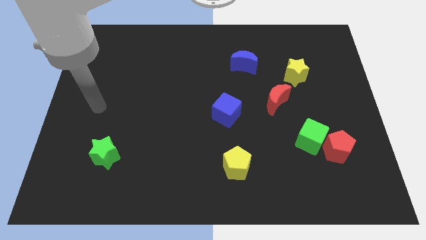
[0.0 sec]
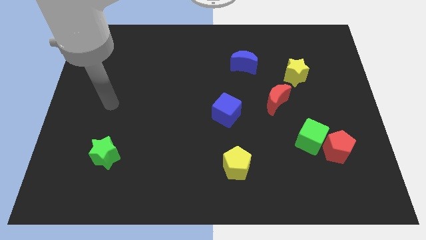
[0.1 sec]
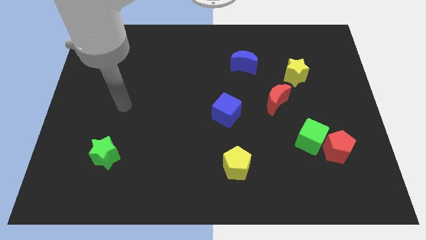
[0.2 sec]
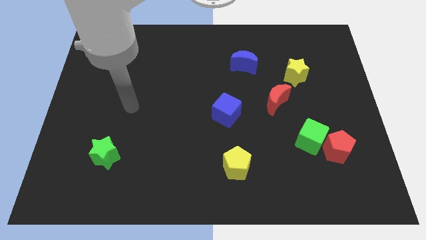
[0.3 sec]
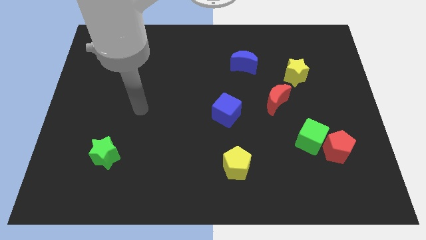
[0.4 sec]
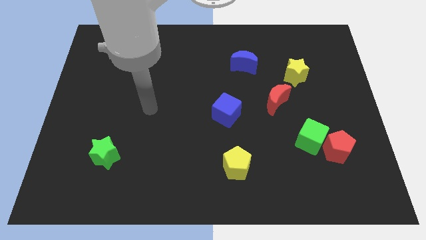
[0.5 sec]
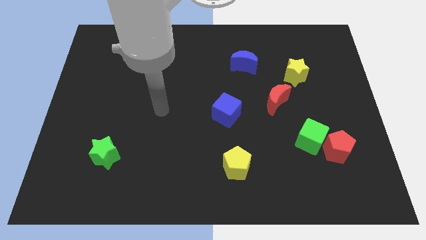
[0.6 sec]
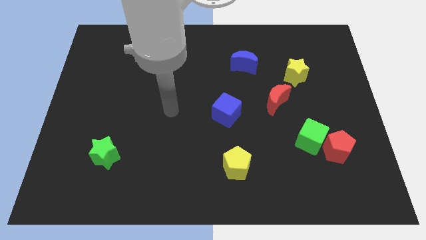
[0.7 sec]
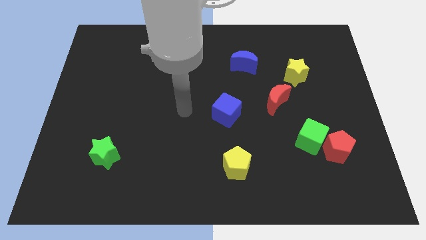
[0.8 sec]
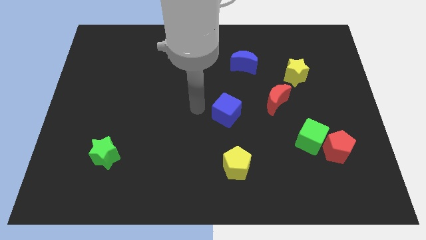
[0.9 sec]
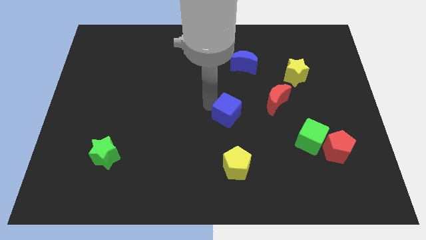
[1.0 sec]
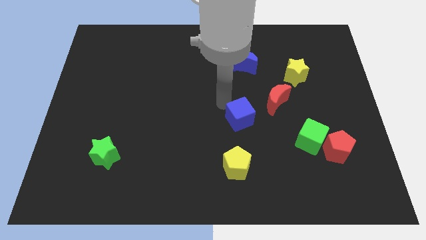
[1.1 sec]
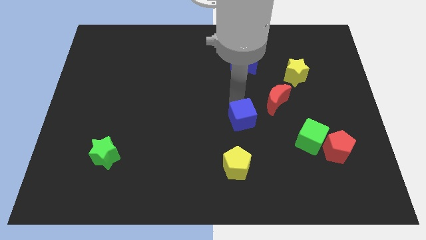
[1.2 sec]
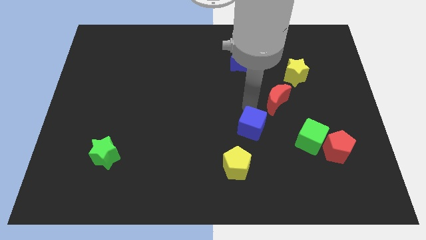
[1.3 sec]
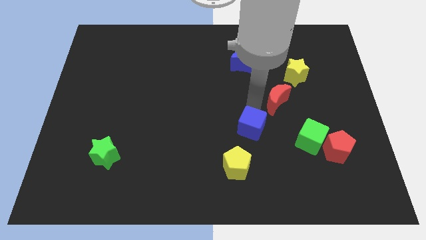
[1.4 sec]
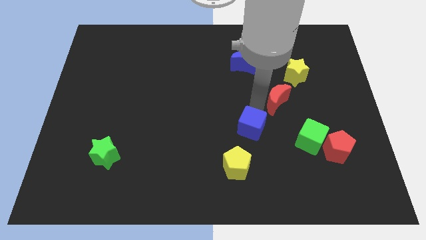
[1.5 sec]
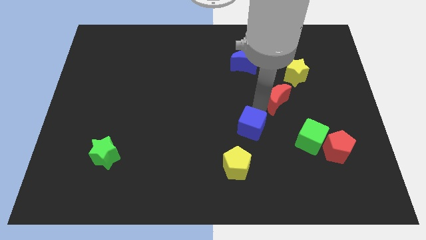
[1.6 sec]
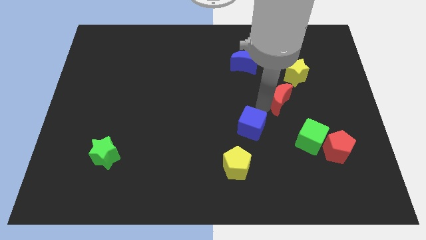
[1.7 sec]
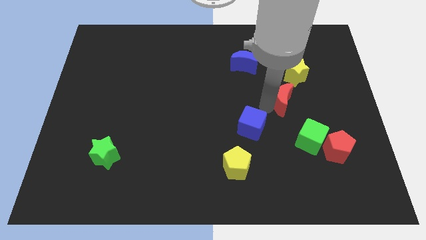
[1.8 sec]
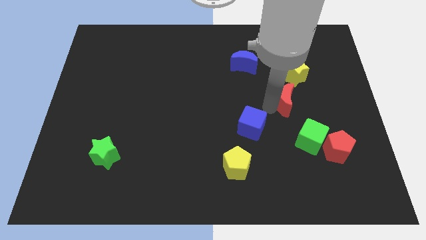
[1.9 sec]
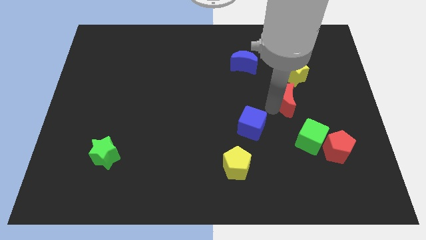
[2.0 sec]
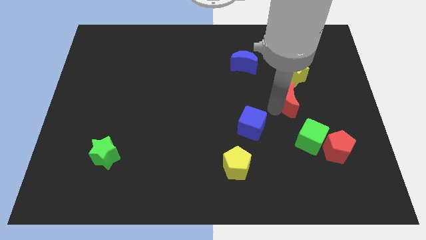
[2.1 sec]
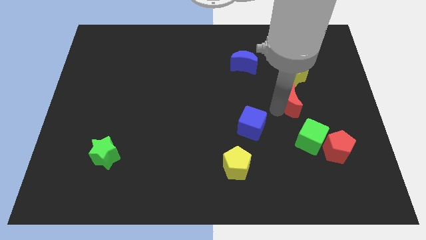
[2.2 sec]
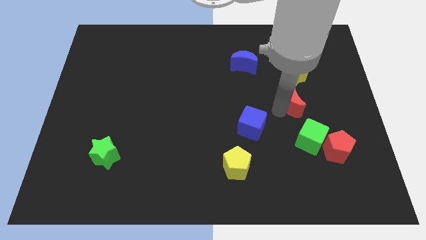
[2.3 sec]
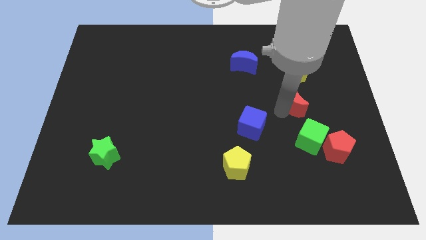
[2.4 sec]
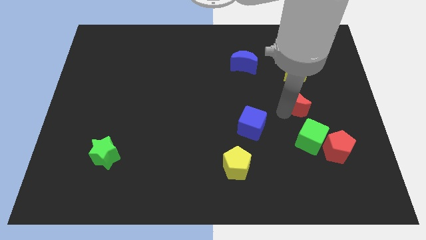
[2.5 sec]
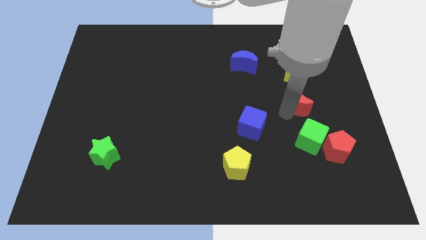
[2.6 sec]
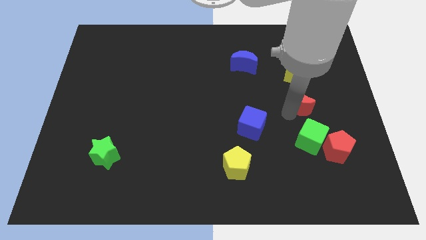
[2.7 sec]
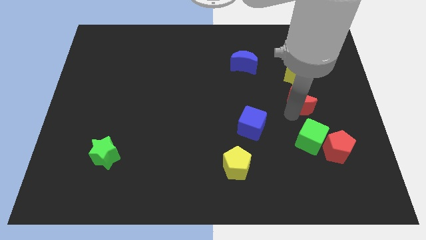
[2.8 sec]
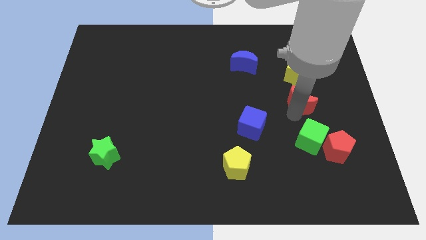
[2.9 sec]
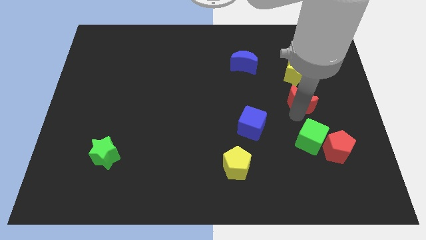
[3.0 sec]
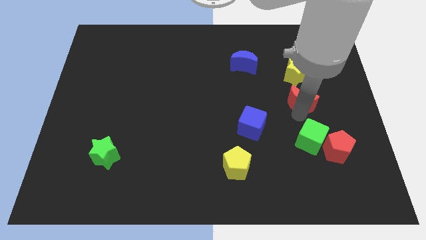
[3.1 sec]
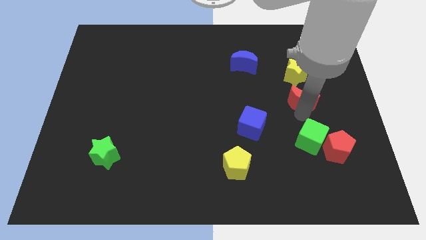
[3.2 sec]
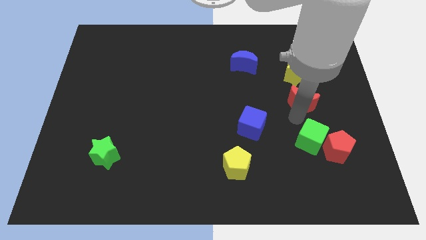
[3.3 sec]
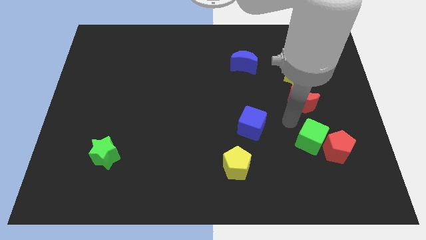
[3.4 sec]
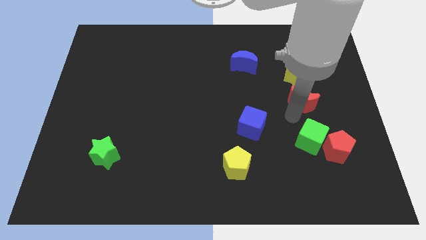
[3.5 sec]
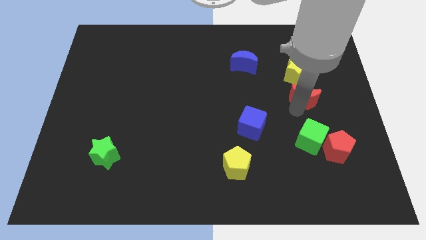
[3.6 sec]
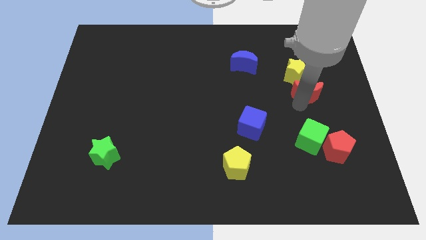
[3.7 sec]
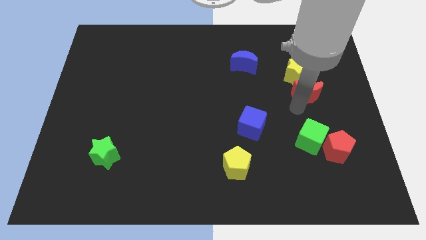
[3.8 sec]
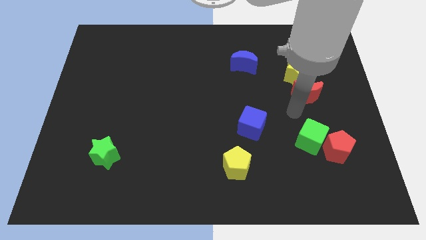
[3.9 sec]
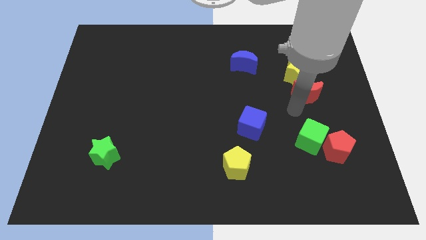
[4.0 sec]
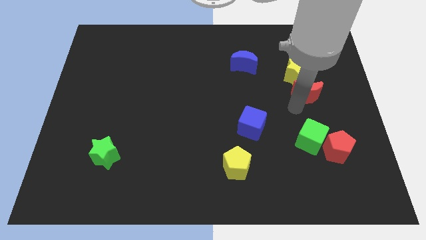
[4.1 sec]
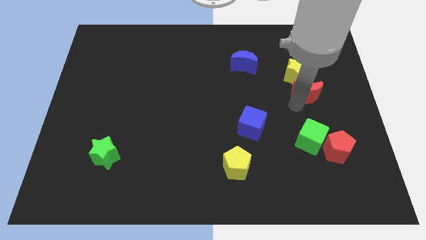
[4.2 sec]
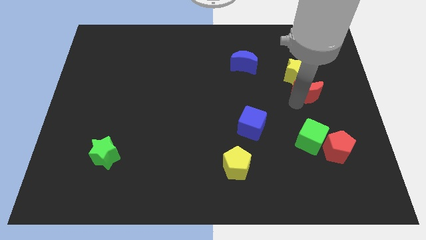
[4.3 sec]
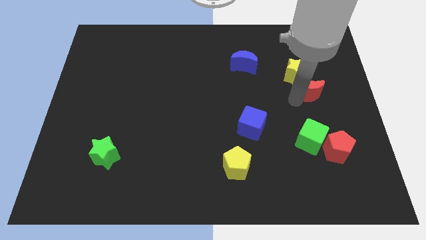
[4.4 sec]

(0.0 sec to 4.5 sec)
slightly slide the red moon upwards and then right

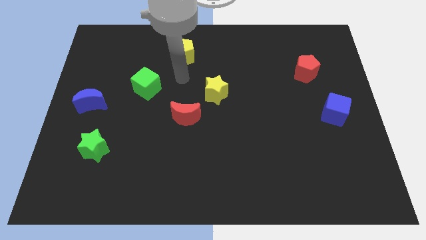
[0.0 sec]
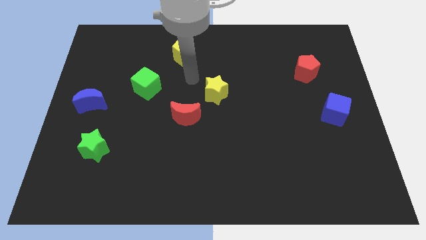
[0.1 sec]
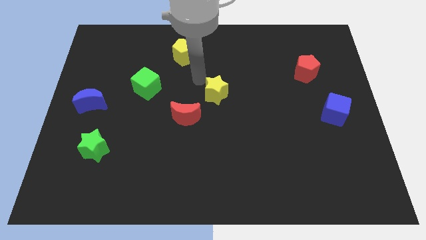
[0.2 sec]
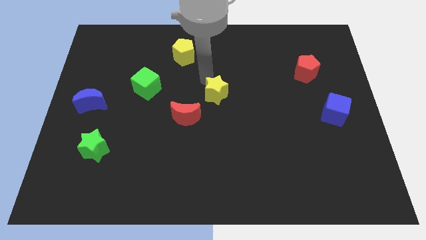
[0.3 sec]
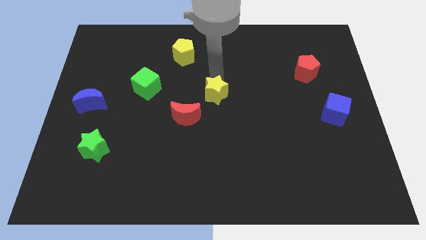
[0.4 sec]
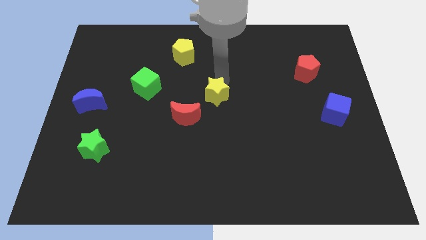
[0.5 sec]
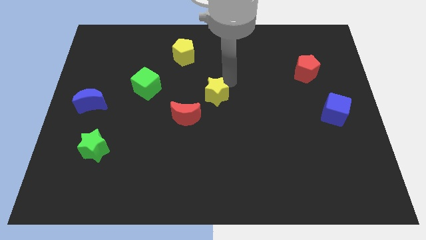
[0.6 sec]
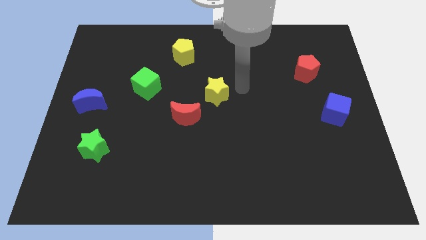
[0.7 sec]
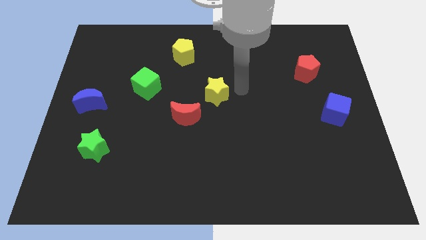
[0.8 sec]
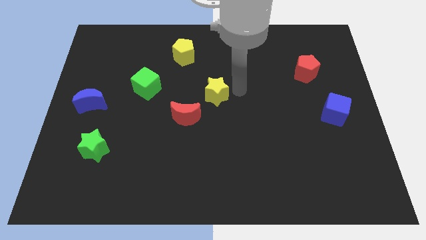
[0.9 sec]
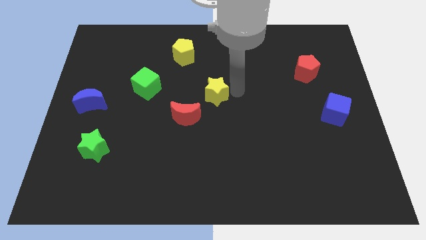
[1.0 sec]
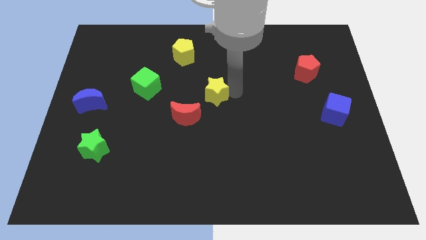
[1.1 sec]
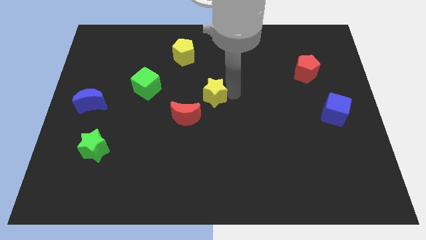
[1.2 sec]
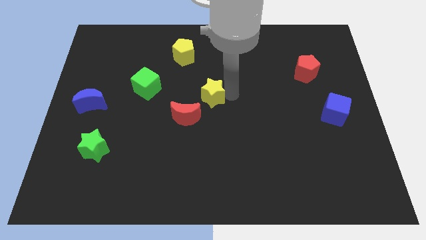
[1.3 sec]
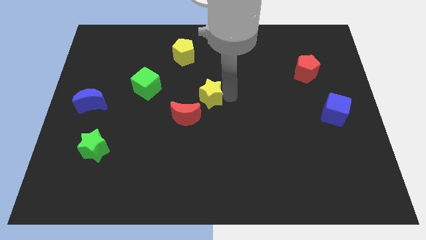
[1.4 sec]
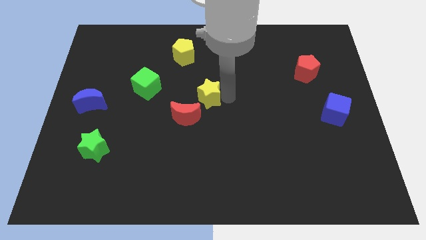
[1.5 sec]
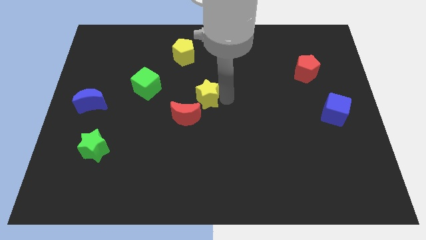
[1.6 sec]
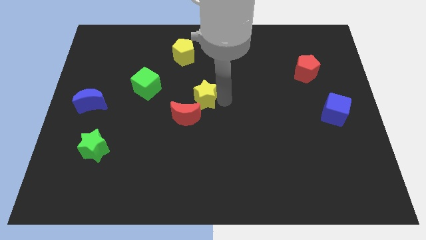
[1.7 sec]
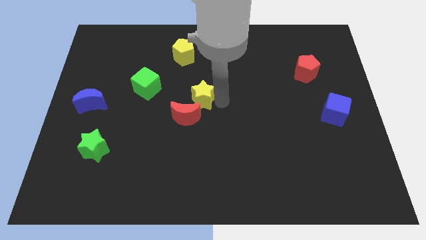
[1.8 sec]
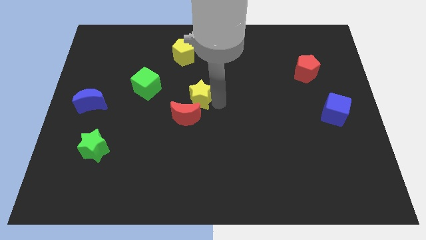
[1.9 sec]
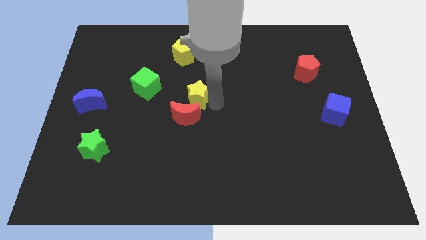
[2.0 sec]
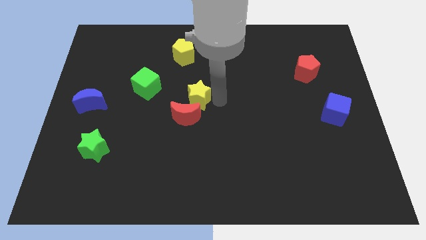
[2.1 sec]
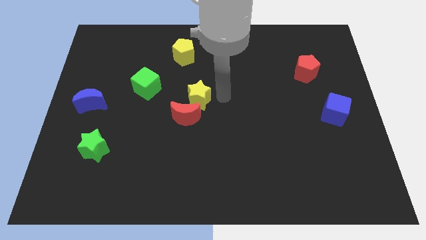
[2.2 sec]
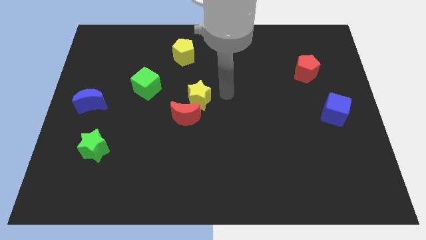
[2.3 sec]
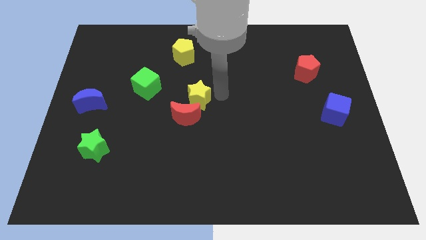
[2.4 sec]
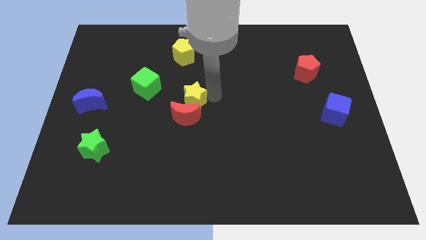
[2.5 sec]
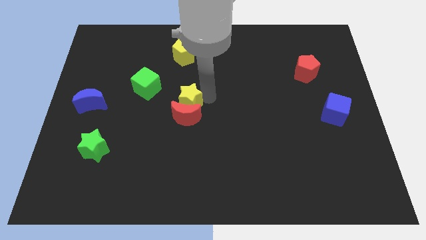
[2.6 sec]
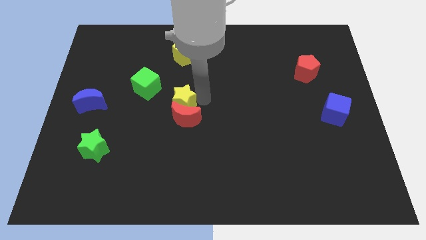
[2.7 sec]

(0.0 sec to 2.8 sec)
push the yellow star a little downwards and to the left diagonally

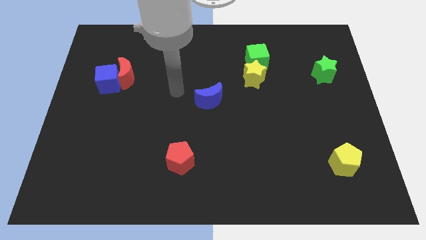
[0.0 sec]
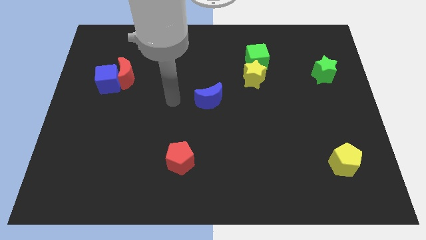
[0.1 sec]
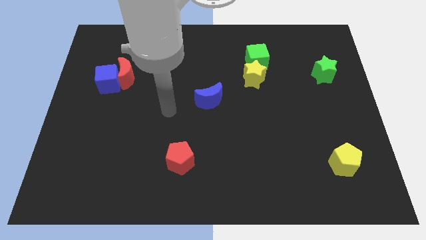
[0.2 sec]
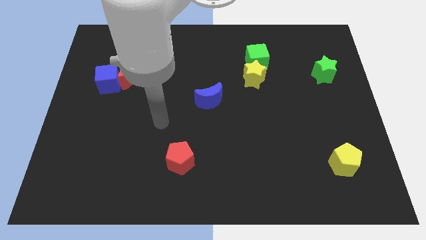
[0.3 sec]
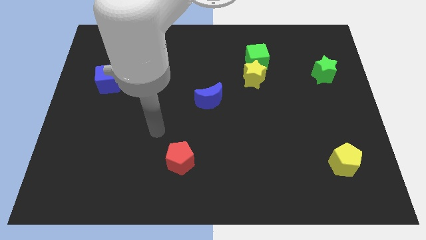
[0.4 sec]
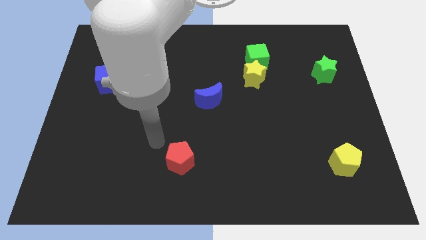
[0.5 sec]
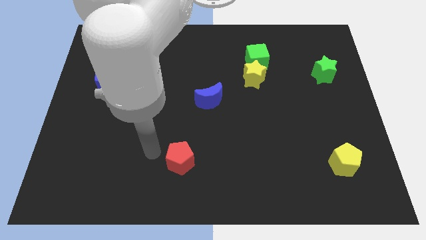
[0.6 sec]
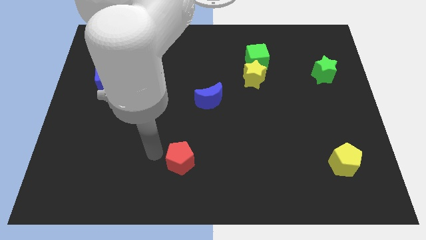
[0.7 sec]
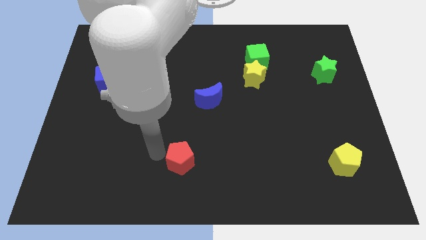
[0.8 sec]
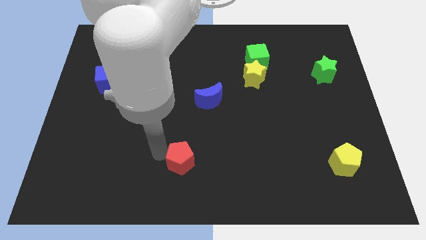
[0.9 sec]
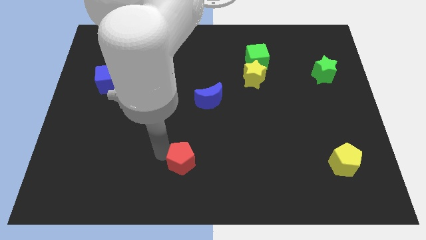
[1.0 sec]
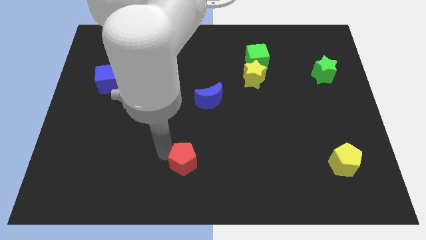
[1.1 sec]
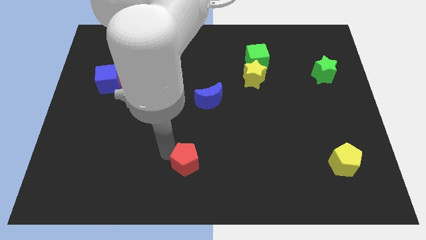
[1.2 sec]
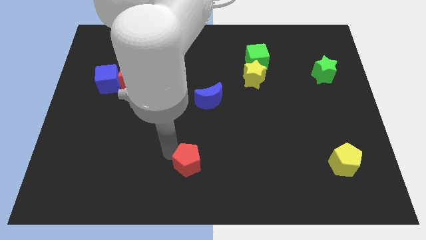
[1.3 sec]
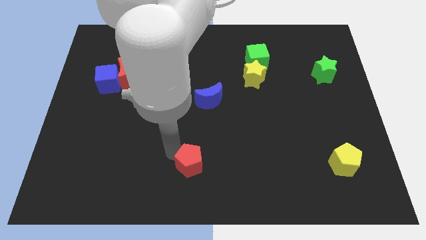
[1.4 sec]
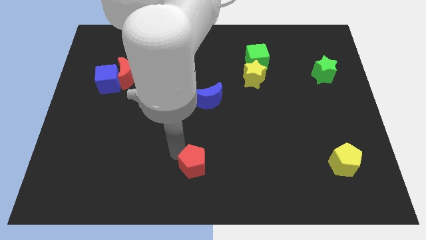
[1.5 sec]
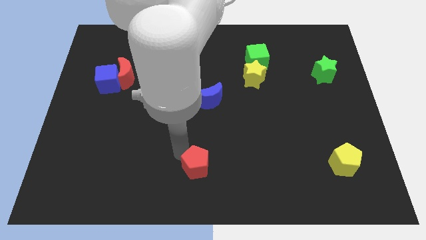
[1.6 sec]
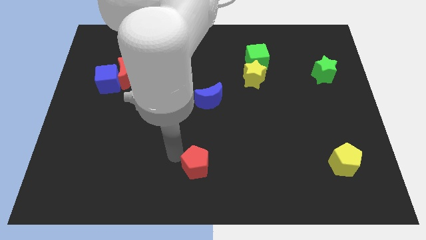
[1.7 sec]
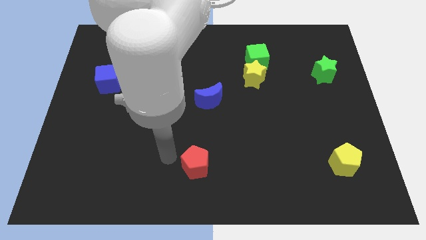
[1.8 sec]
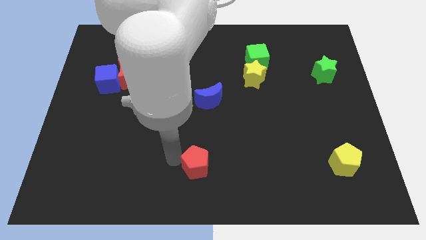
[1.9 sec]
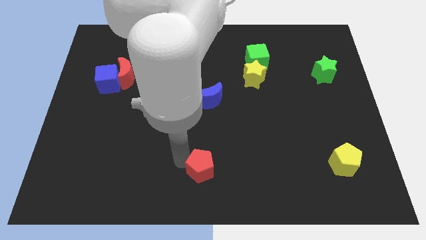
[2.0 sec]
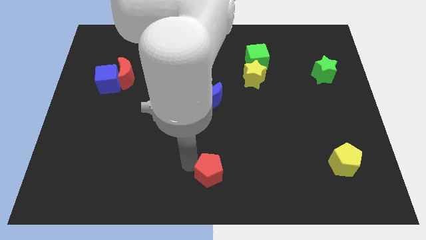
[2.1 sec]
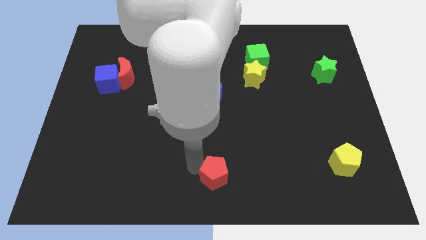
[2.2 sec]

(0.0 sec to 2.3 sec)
slightly slide the red pentagon right
